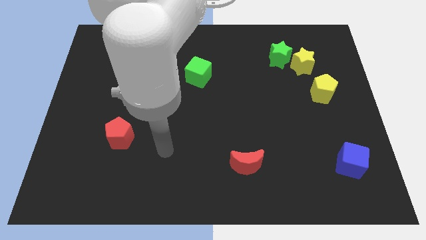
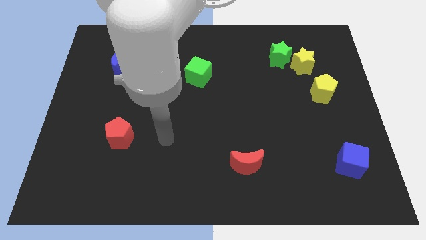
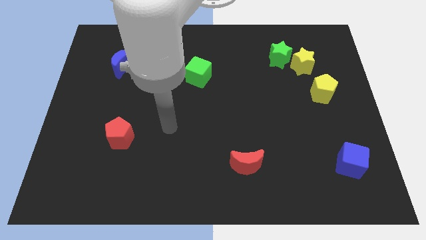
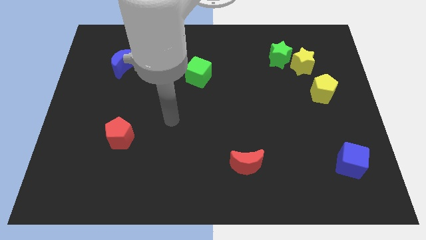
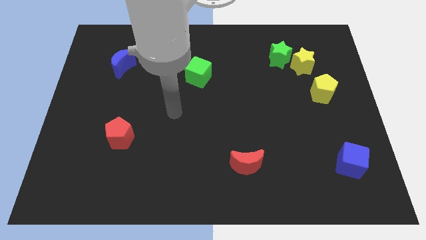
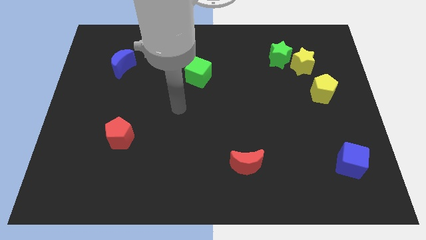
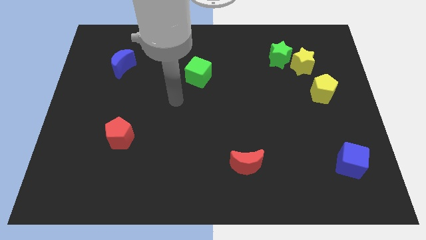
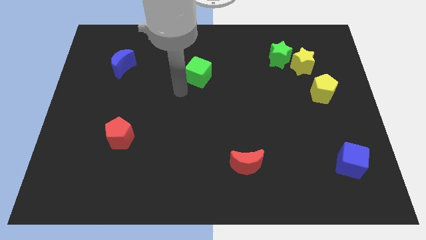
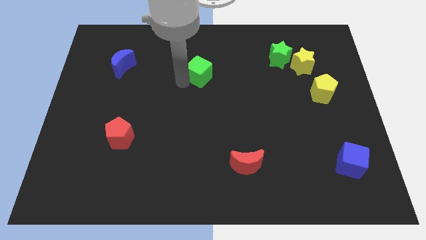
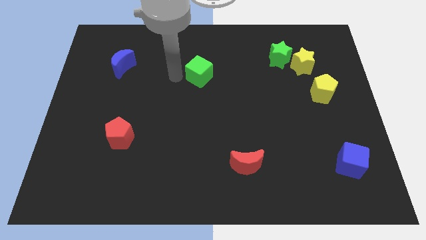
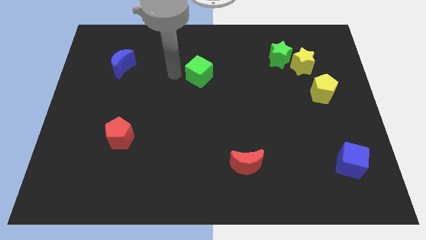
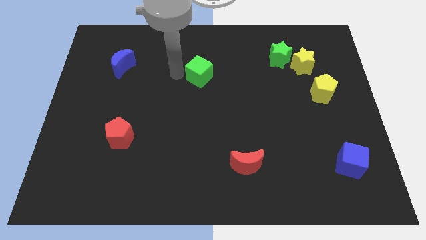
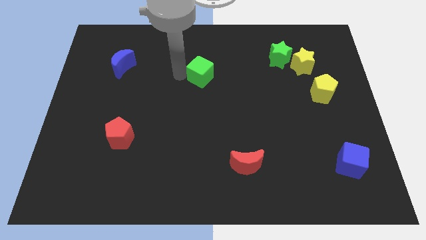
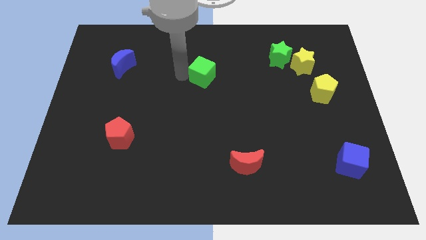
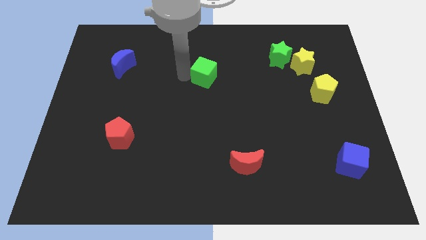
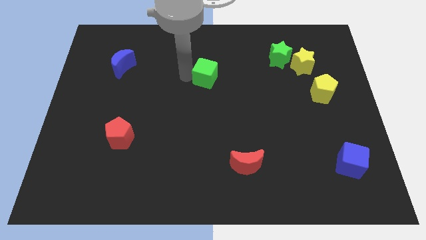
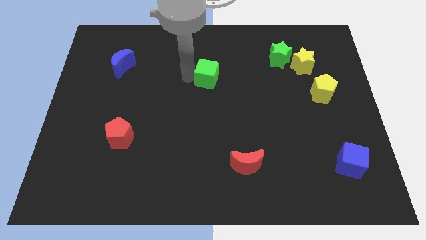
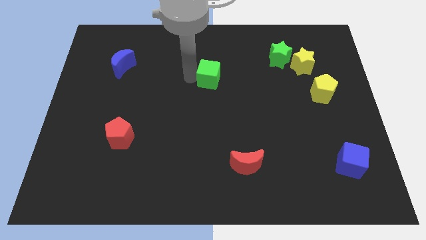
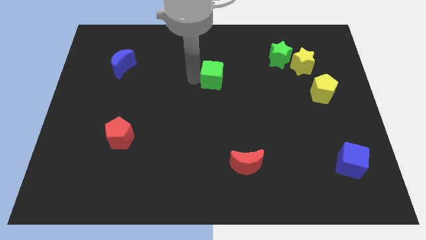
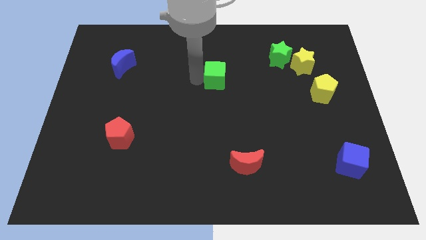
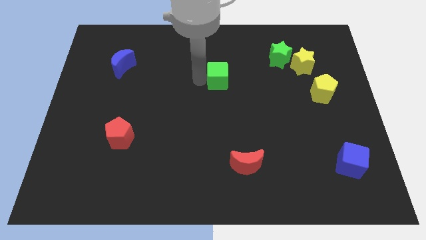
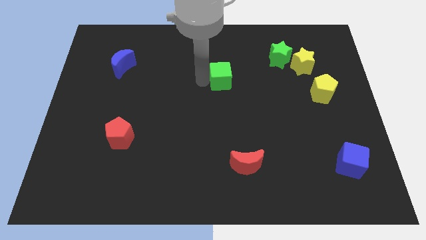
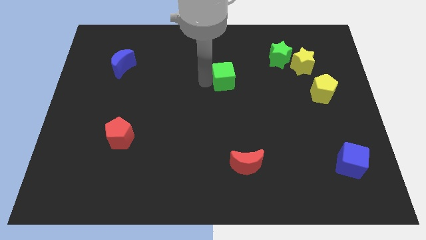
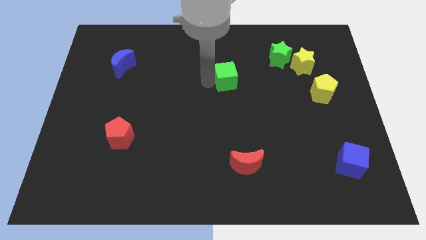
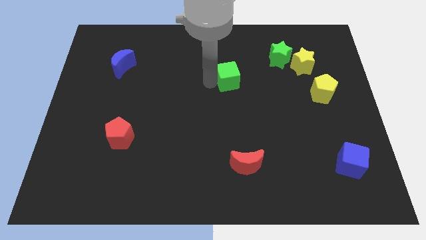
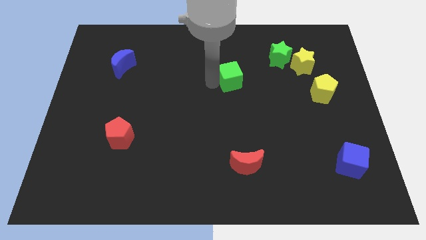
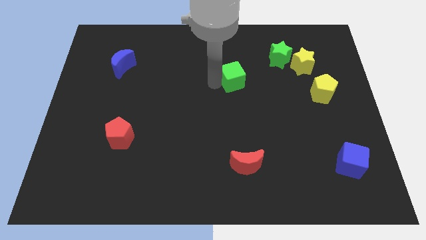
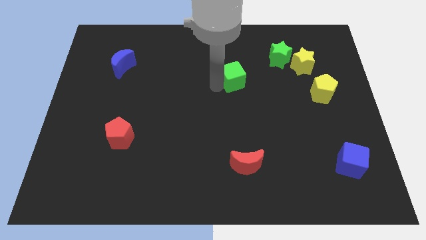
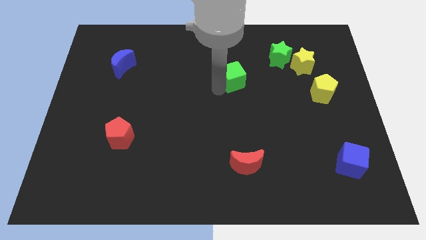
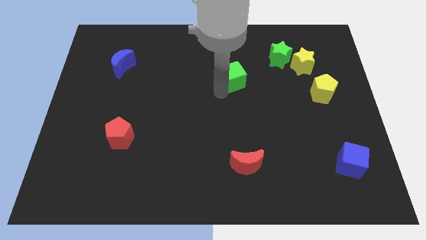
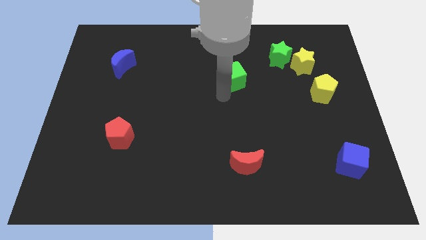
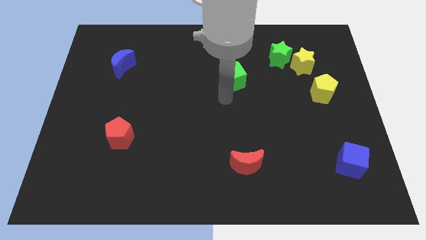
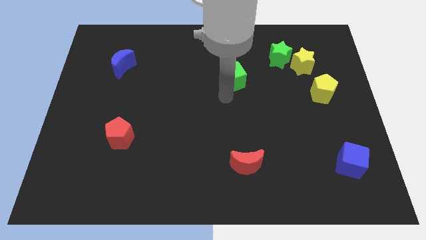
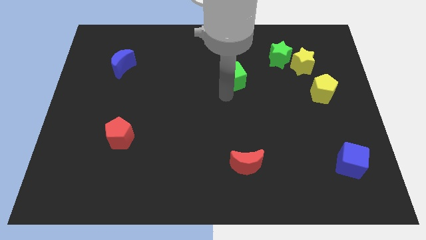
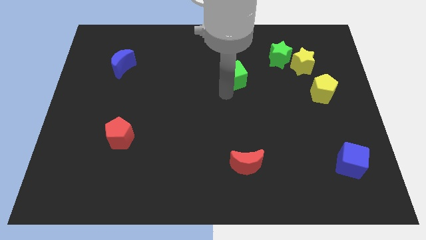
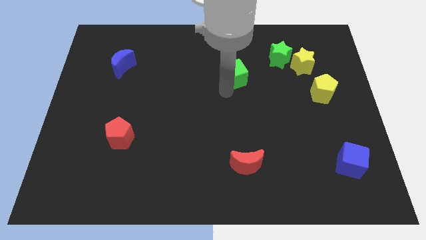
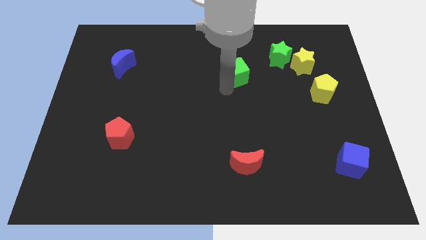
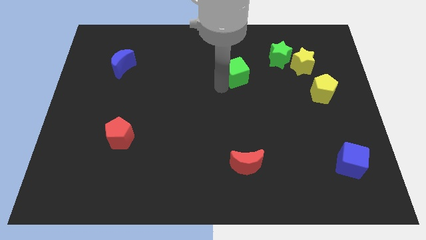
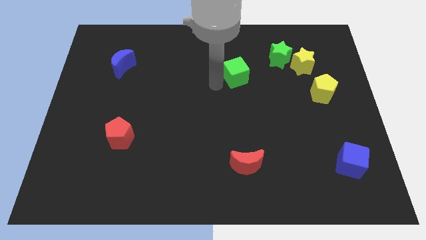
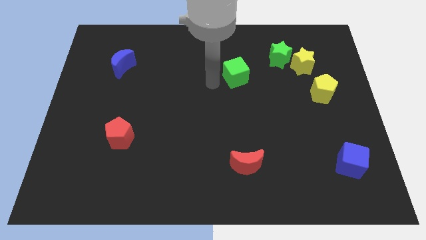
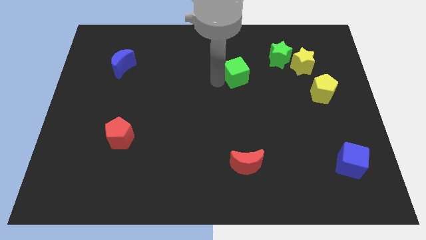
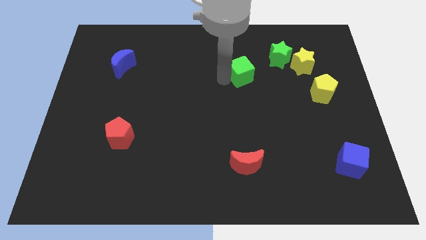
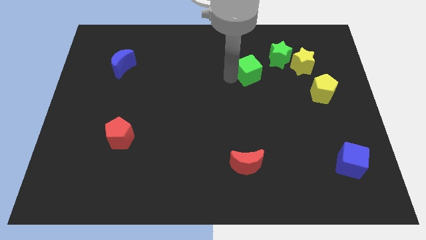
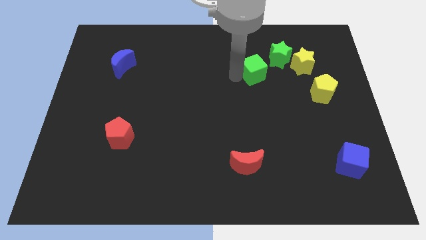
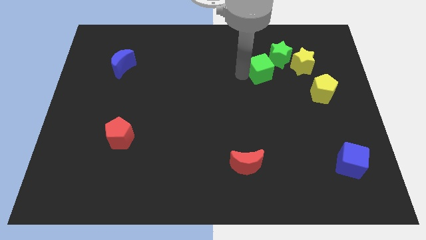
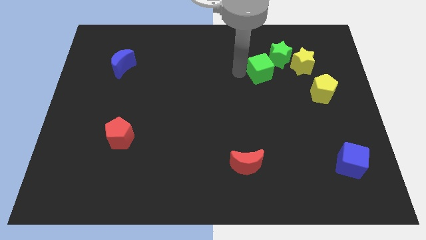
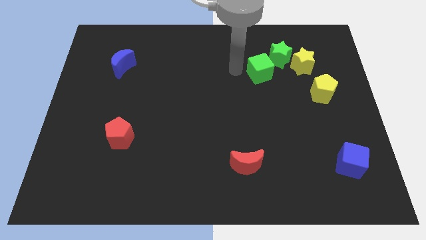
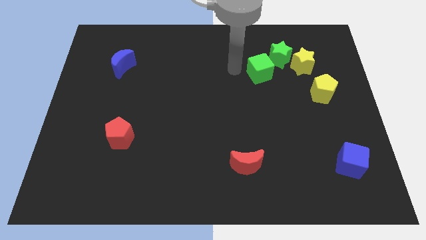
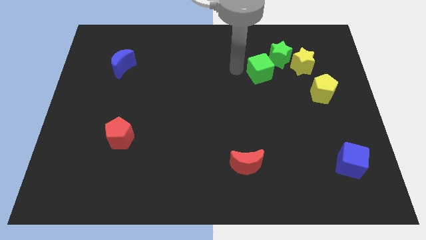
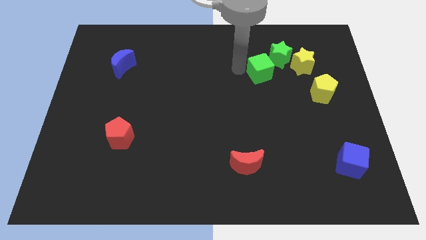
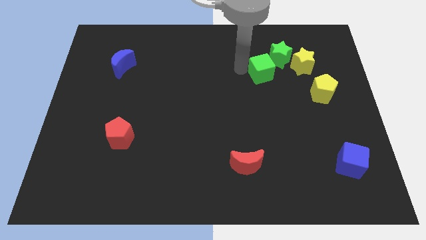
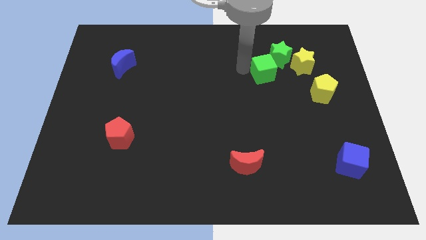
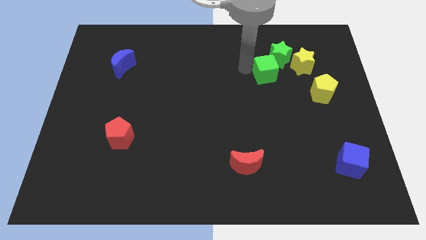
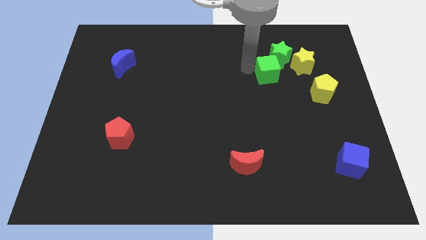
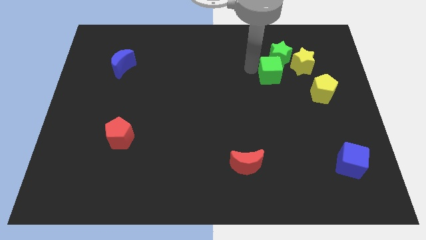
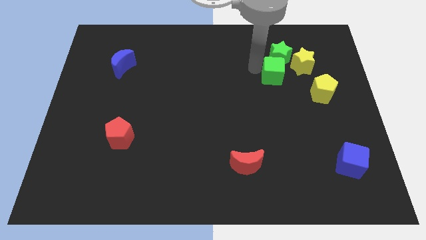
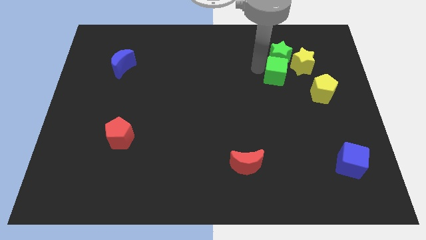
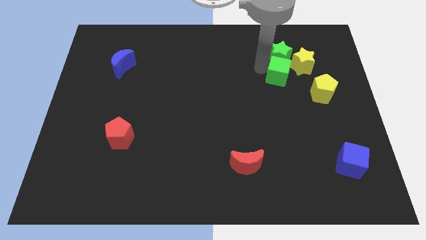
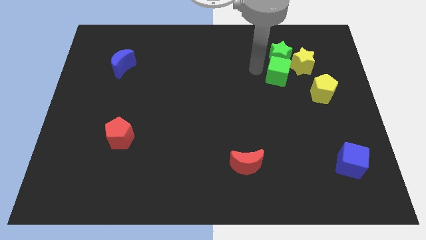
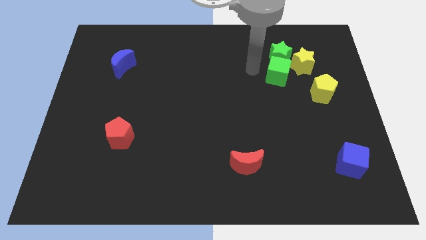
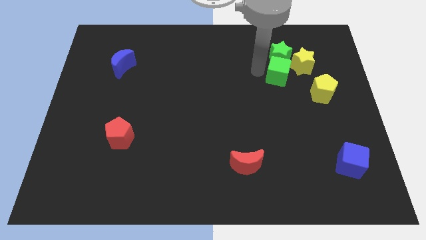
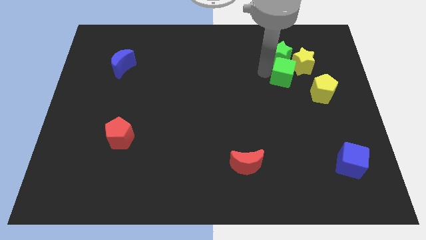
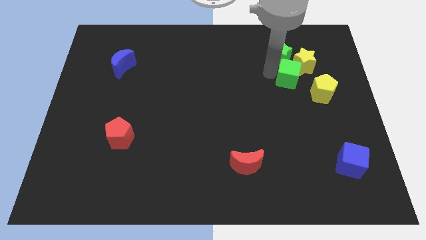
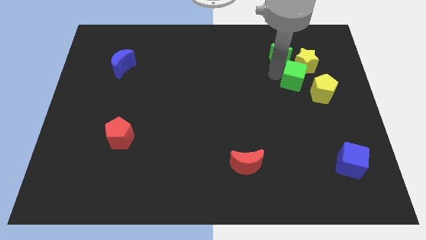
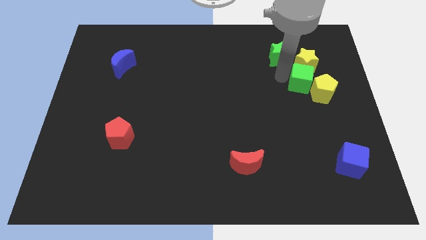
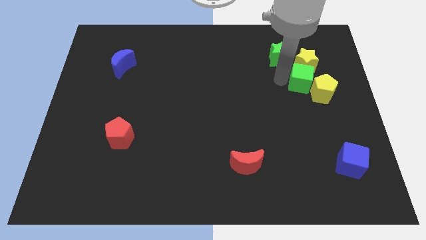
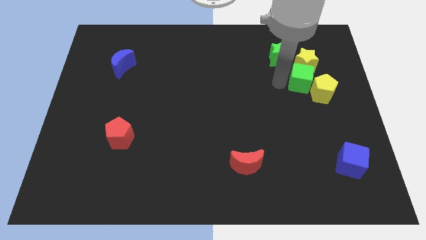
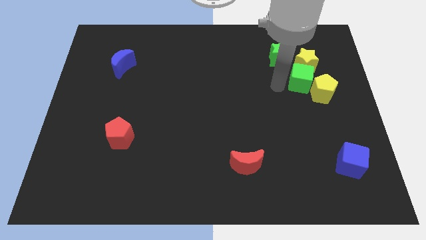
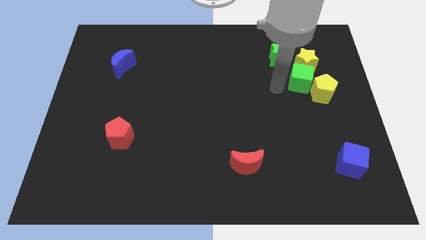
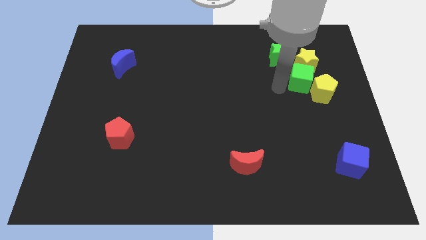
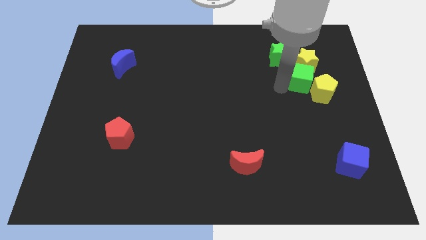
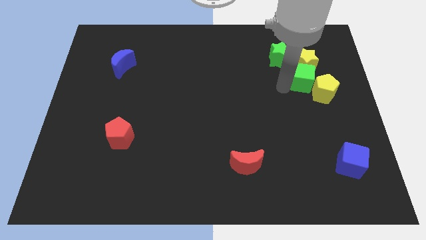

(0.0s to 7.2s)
put the green cube to the top side of the yellow pentagon
